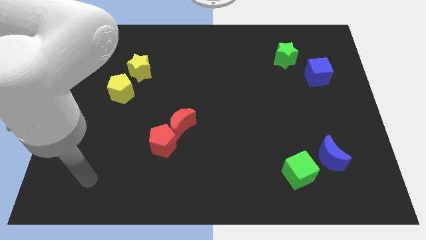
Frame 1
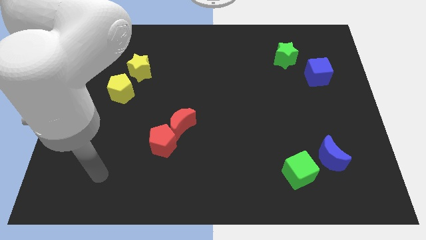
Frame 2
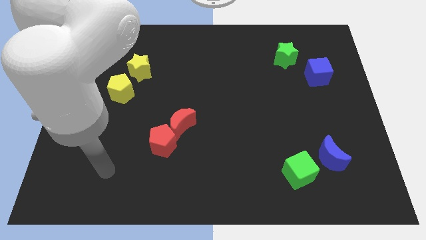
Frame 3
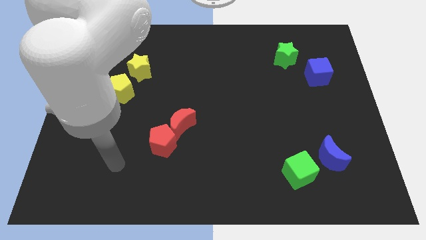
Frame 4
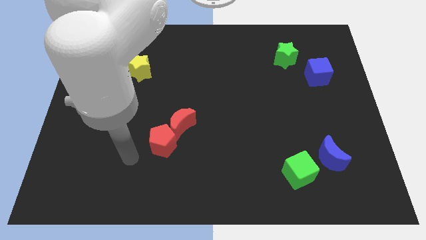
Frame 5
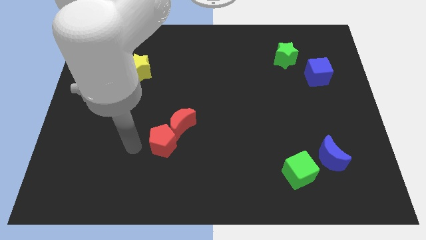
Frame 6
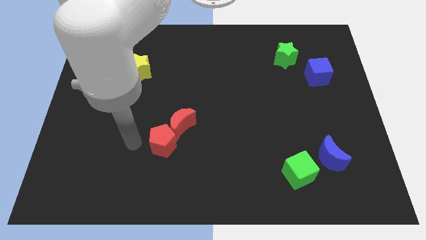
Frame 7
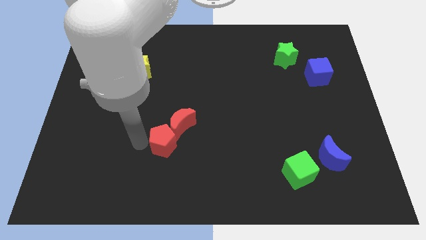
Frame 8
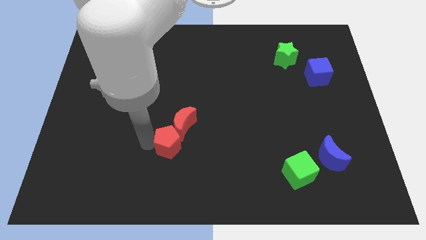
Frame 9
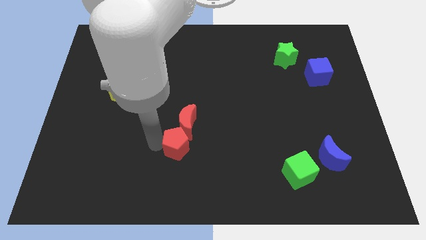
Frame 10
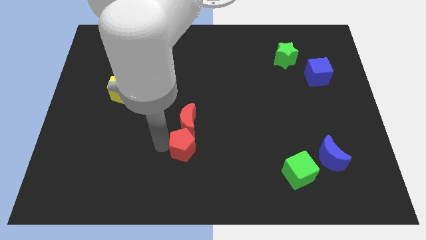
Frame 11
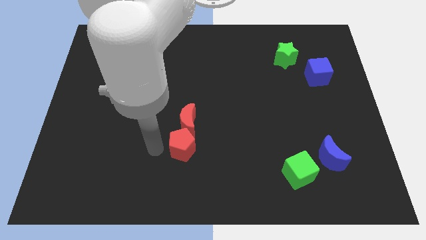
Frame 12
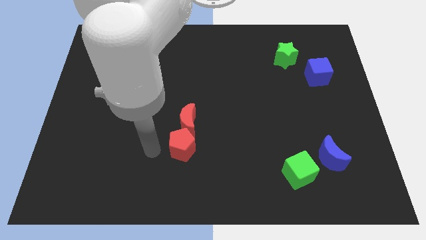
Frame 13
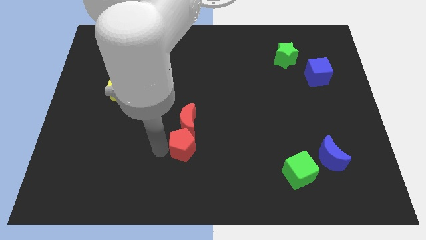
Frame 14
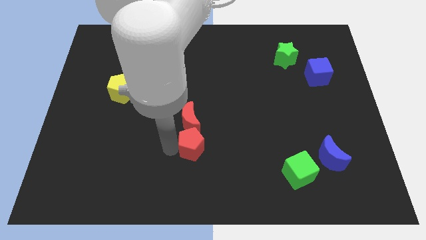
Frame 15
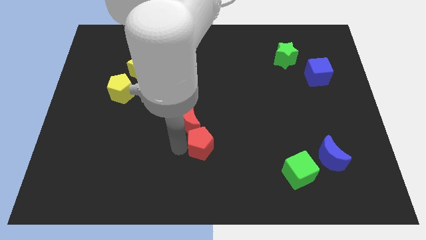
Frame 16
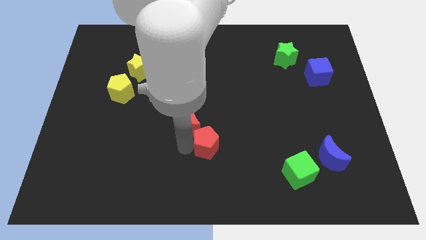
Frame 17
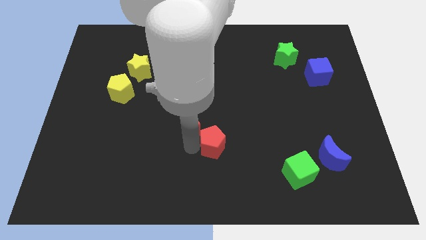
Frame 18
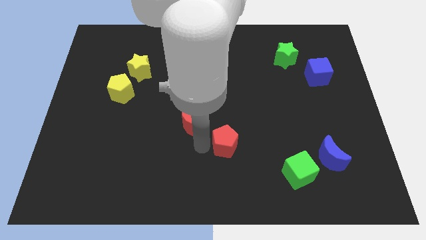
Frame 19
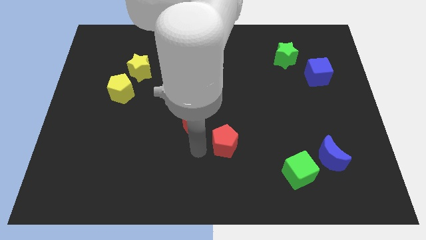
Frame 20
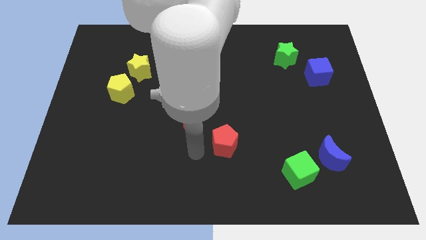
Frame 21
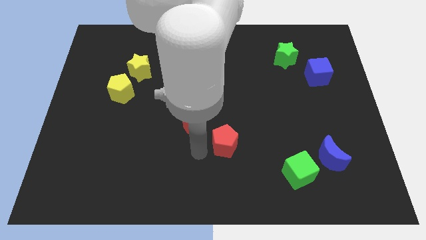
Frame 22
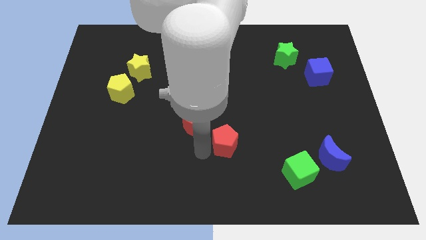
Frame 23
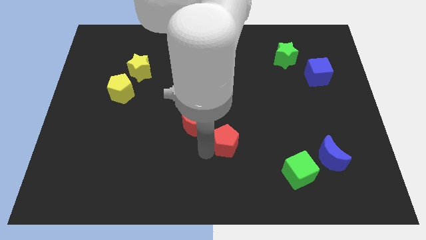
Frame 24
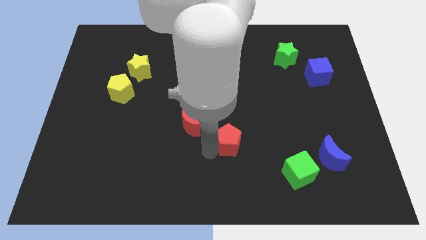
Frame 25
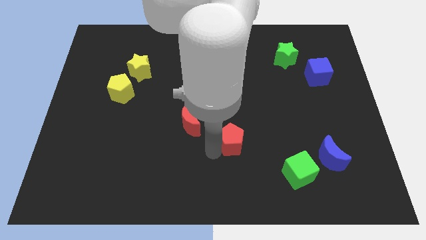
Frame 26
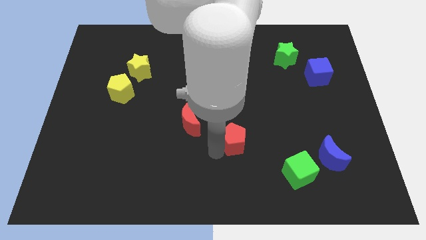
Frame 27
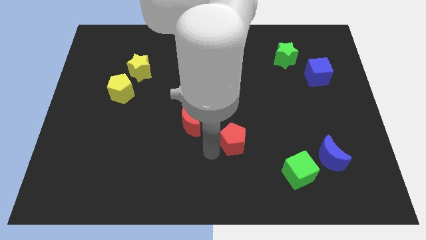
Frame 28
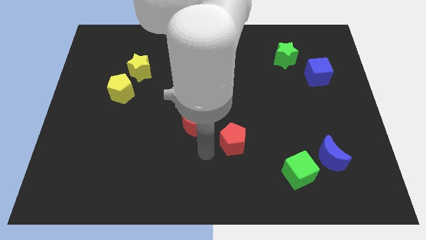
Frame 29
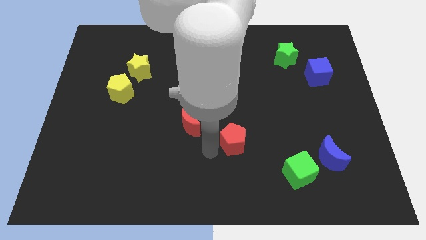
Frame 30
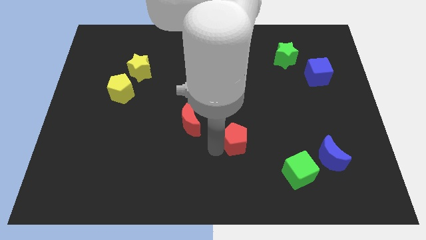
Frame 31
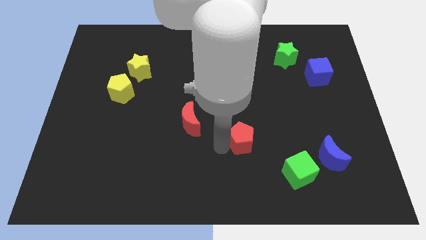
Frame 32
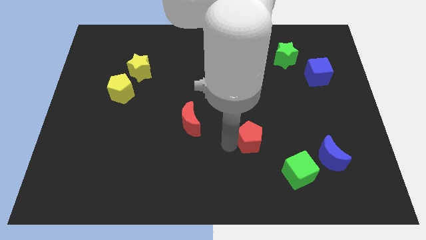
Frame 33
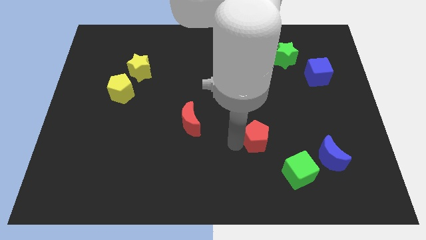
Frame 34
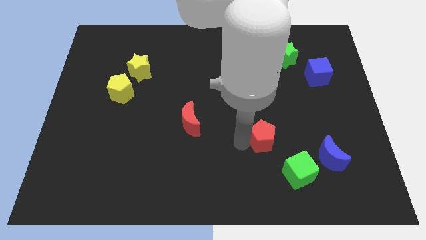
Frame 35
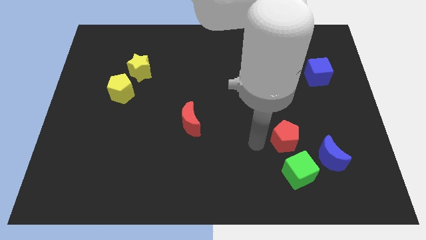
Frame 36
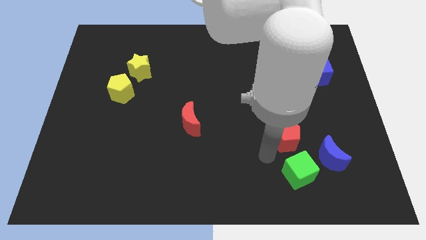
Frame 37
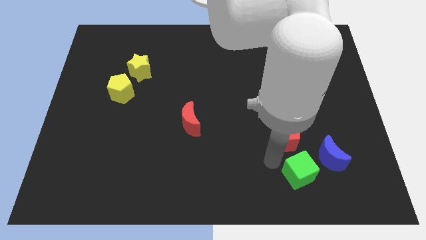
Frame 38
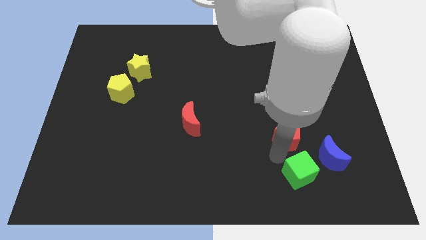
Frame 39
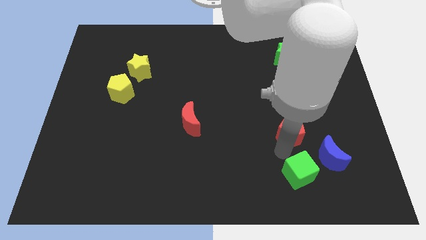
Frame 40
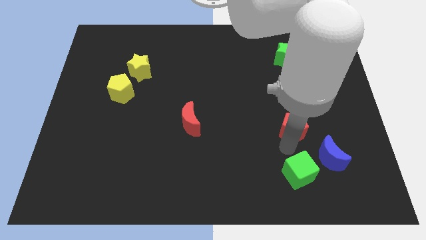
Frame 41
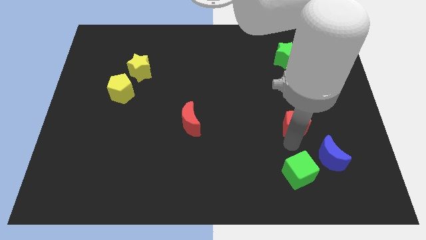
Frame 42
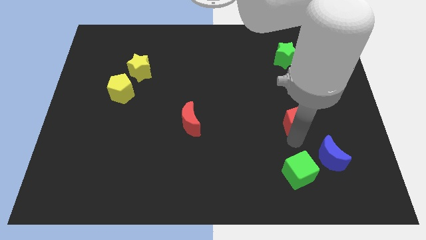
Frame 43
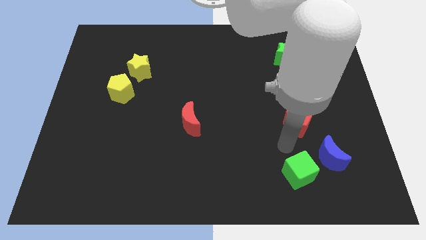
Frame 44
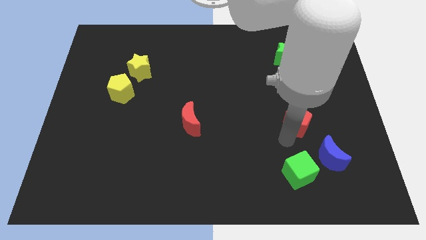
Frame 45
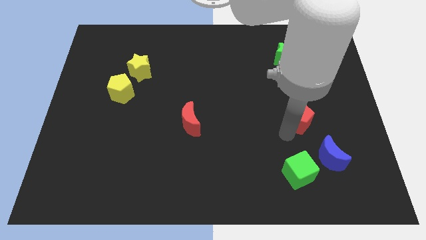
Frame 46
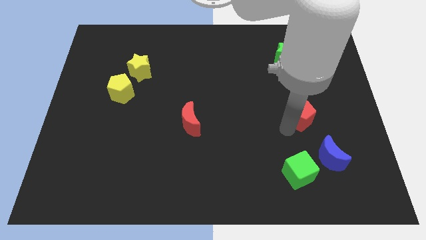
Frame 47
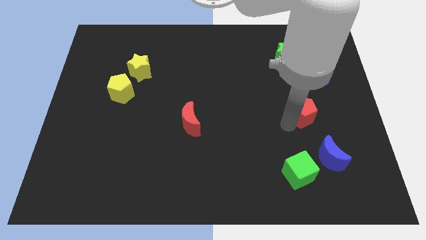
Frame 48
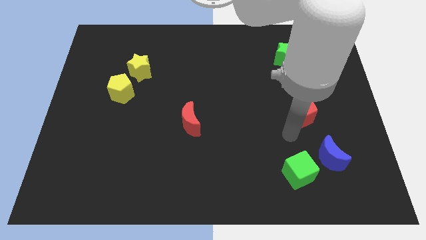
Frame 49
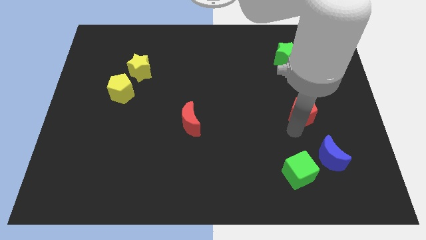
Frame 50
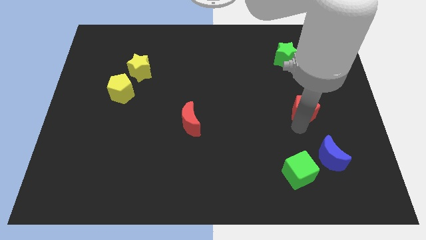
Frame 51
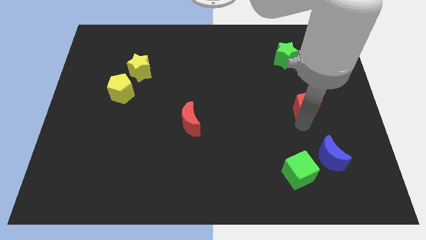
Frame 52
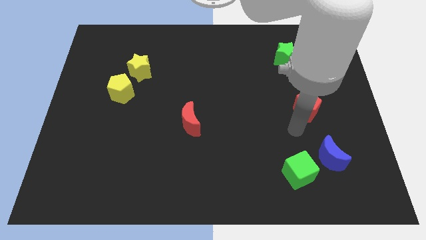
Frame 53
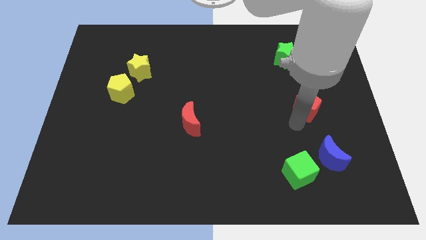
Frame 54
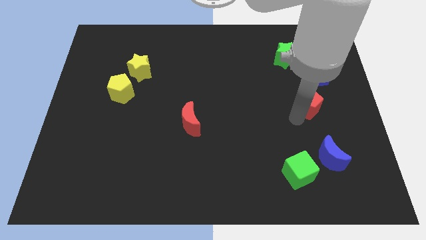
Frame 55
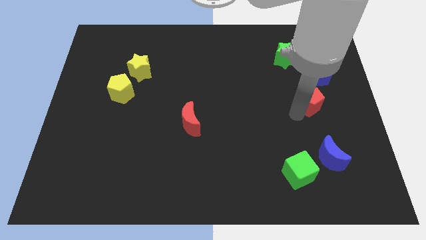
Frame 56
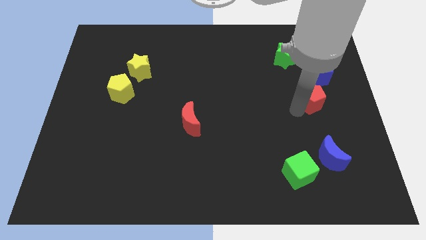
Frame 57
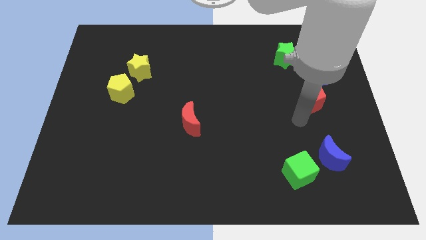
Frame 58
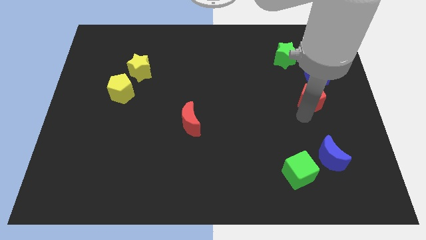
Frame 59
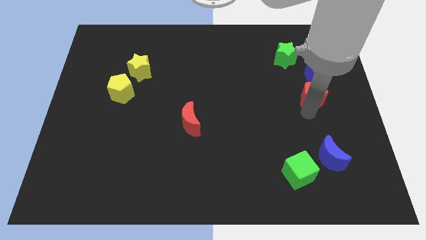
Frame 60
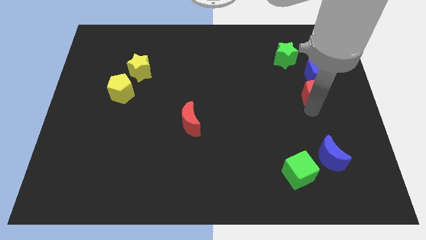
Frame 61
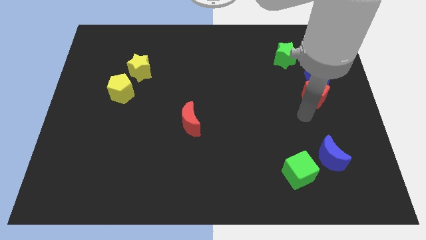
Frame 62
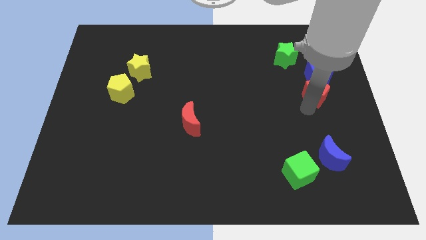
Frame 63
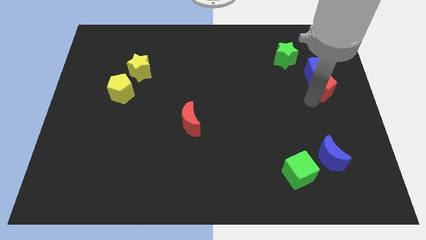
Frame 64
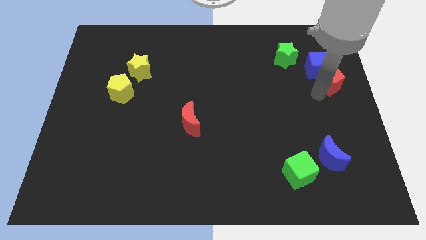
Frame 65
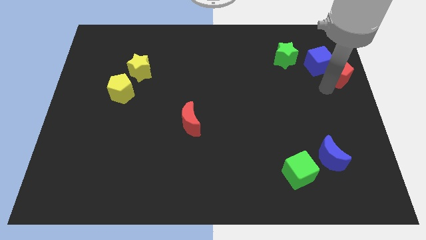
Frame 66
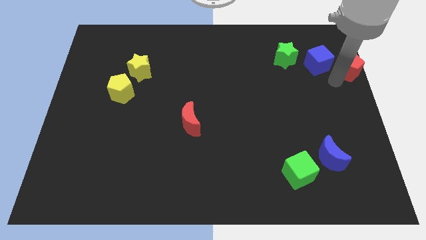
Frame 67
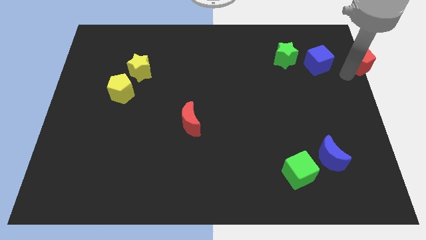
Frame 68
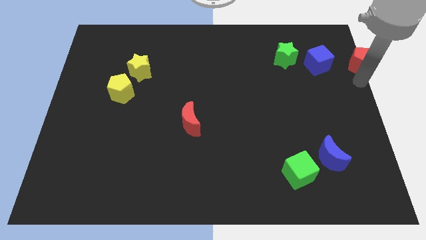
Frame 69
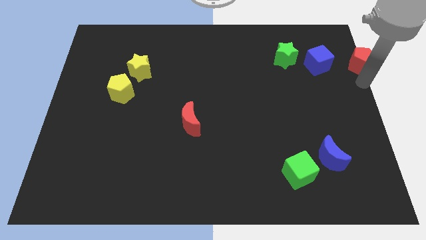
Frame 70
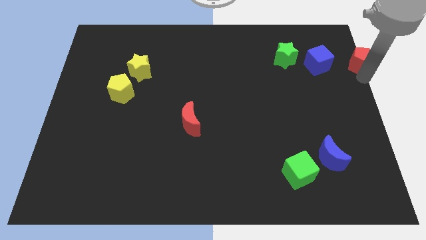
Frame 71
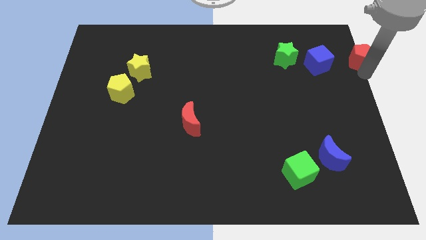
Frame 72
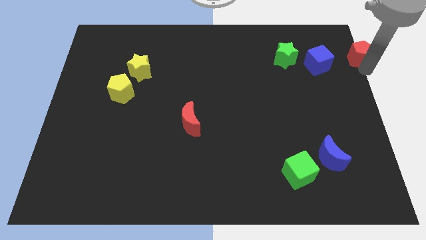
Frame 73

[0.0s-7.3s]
put the red pentagon to the top right of the board
